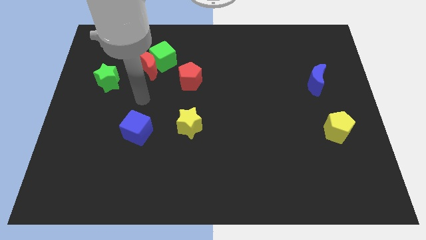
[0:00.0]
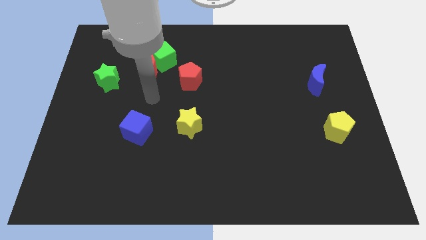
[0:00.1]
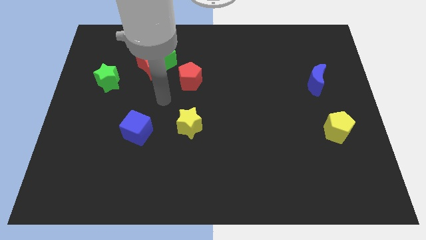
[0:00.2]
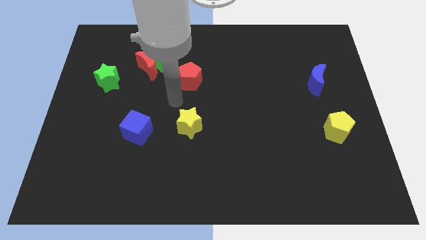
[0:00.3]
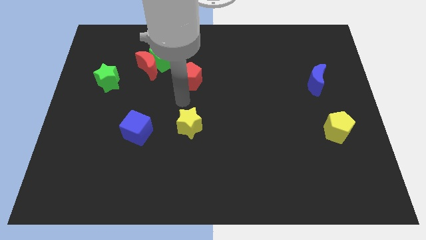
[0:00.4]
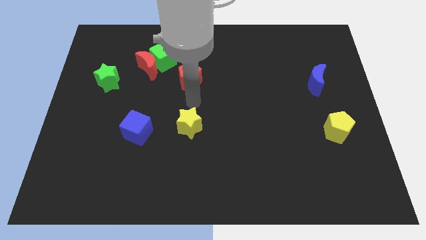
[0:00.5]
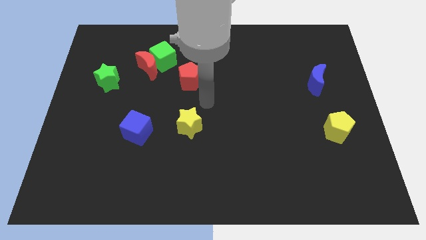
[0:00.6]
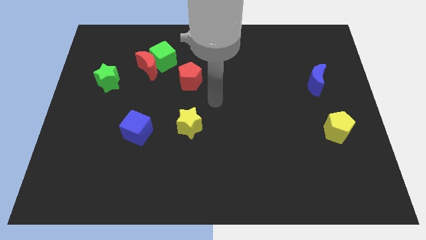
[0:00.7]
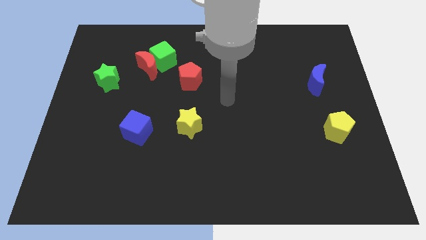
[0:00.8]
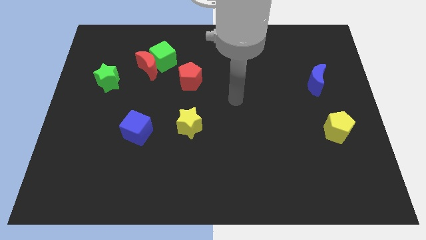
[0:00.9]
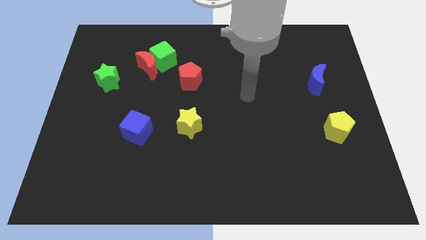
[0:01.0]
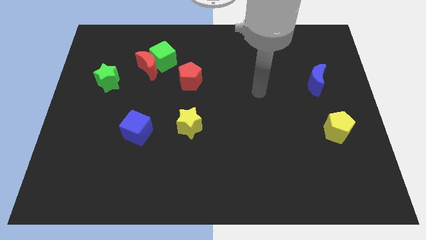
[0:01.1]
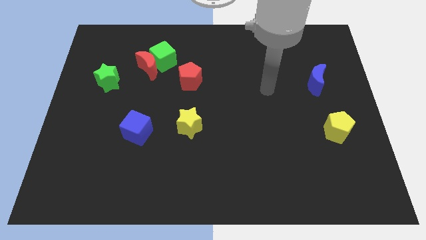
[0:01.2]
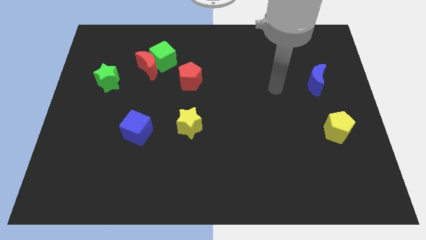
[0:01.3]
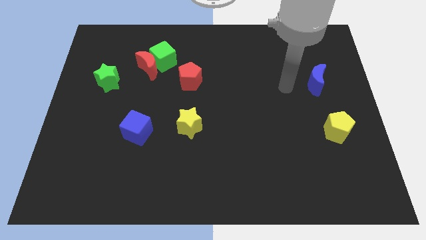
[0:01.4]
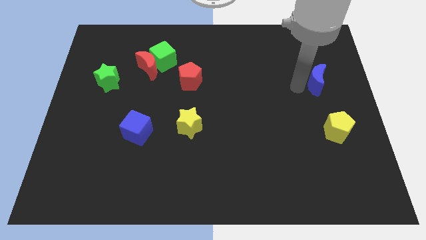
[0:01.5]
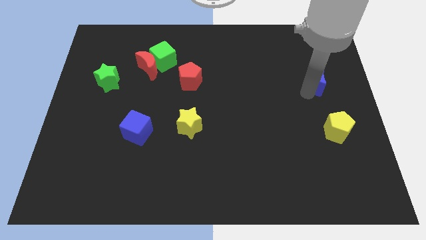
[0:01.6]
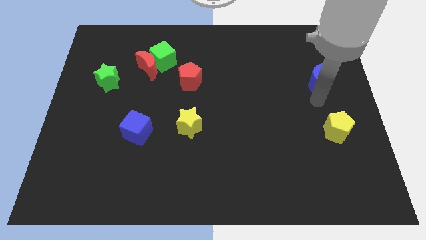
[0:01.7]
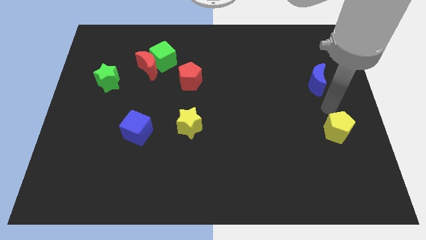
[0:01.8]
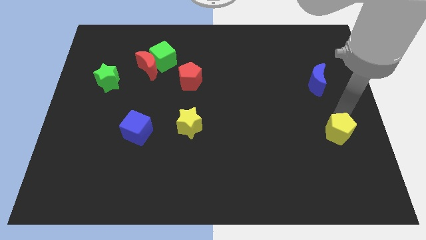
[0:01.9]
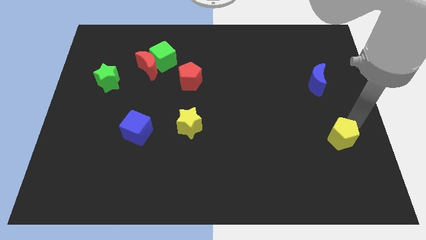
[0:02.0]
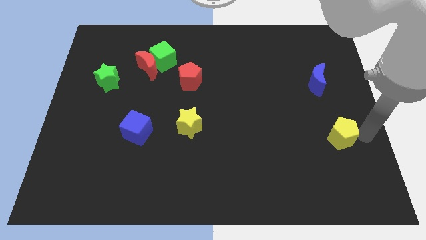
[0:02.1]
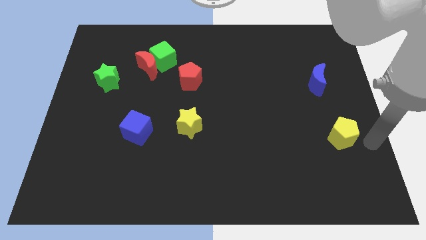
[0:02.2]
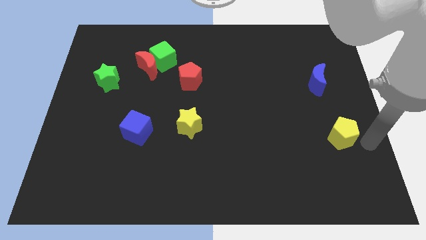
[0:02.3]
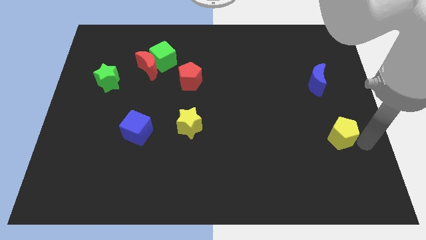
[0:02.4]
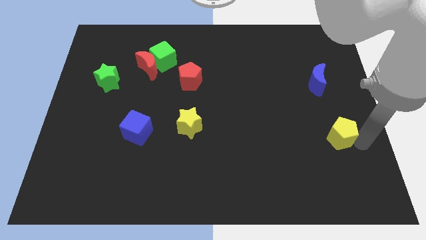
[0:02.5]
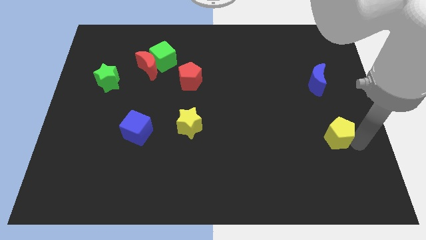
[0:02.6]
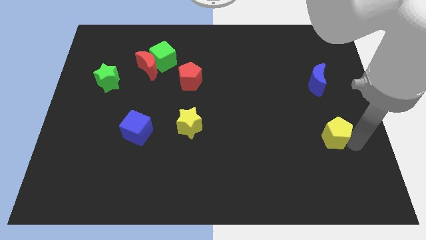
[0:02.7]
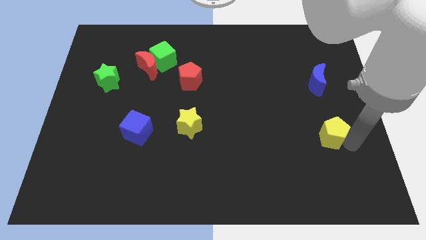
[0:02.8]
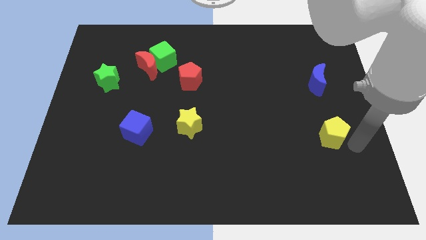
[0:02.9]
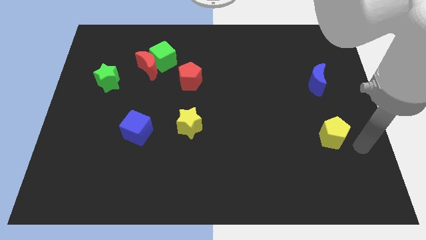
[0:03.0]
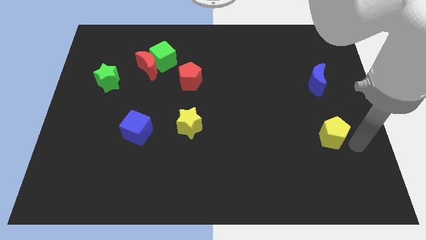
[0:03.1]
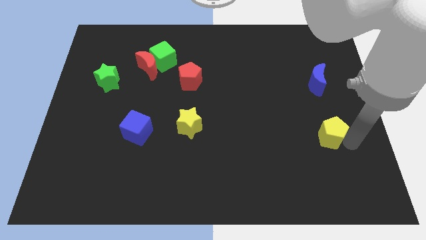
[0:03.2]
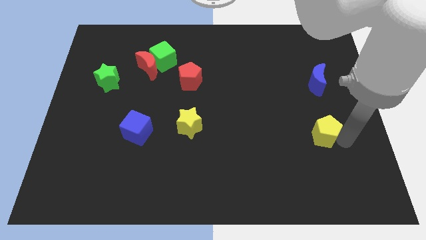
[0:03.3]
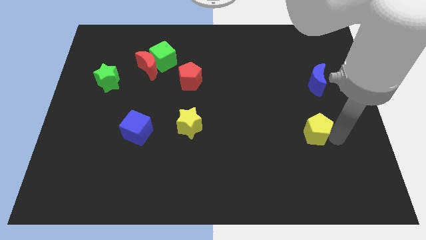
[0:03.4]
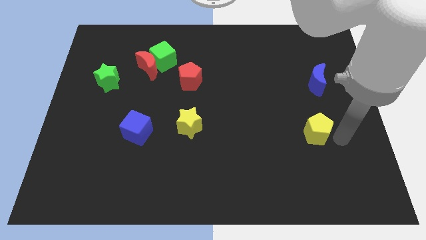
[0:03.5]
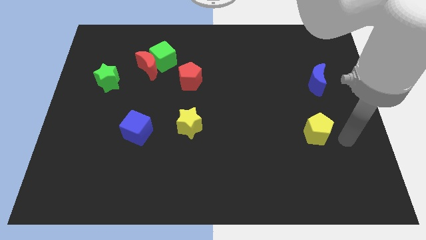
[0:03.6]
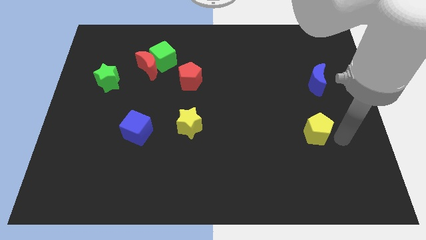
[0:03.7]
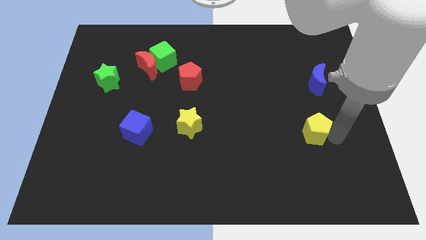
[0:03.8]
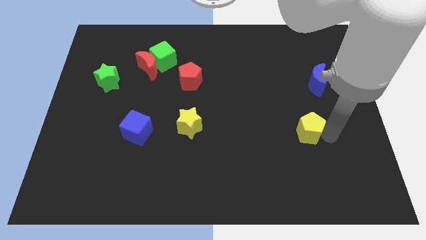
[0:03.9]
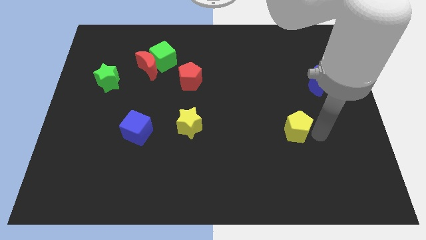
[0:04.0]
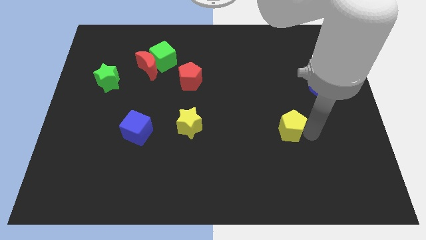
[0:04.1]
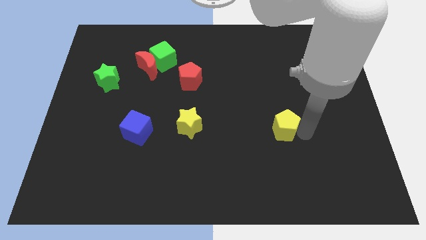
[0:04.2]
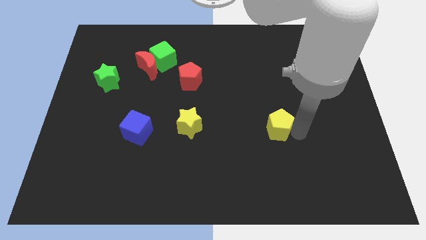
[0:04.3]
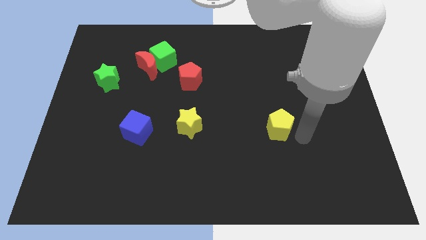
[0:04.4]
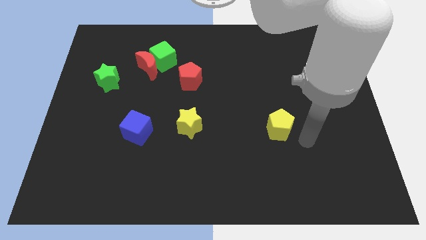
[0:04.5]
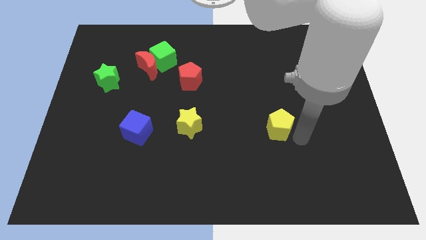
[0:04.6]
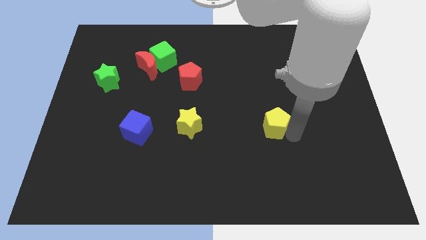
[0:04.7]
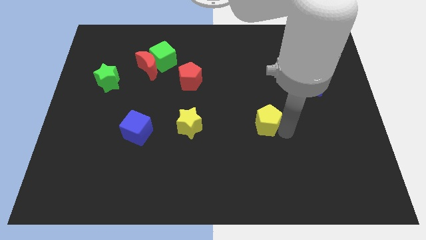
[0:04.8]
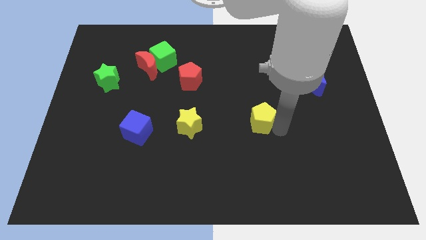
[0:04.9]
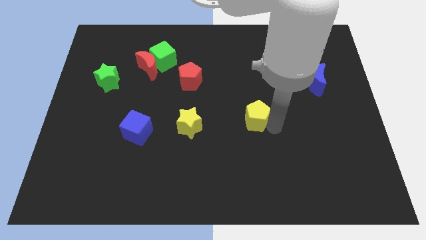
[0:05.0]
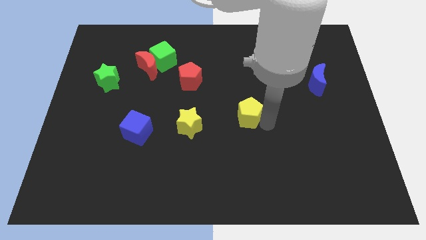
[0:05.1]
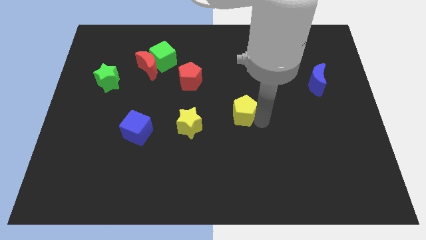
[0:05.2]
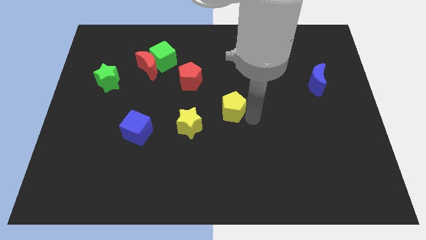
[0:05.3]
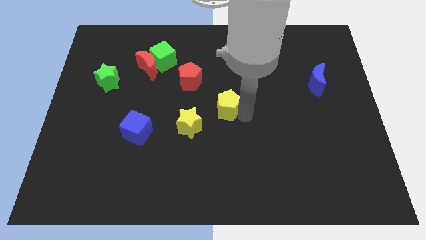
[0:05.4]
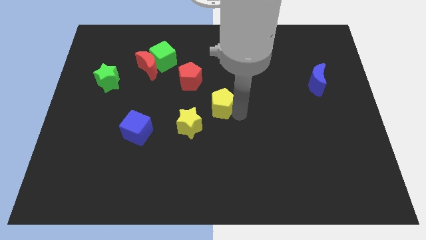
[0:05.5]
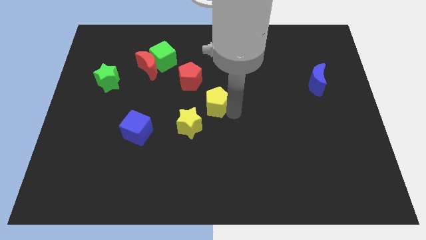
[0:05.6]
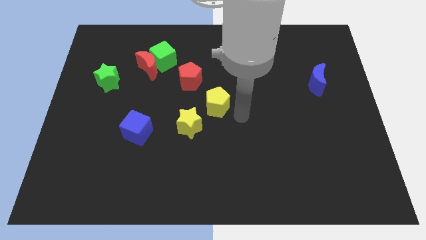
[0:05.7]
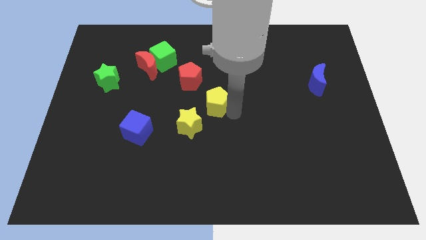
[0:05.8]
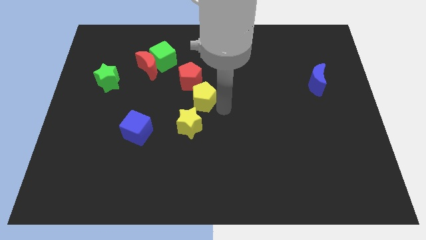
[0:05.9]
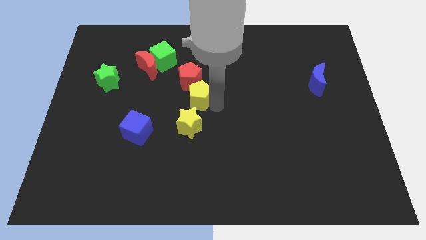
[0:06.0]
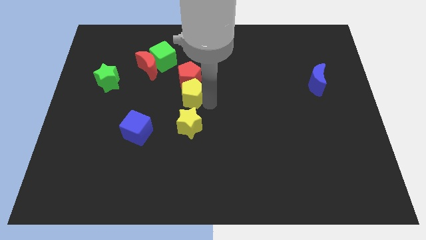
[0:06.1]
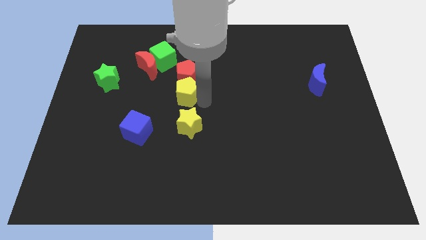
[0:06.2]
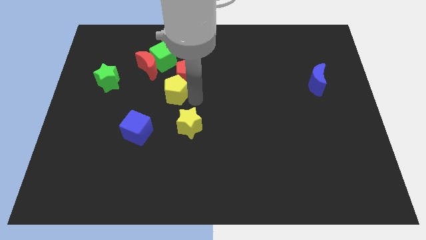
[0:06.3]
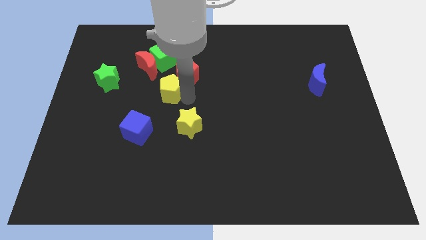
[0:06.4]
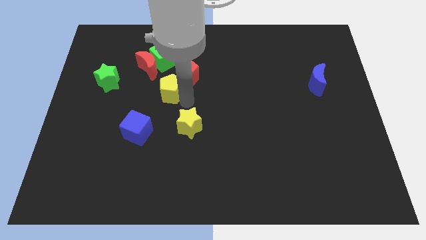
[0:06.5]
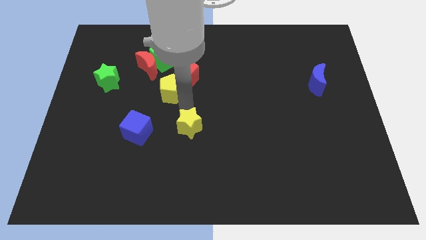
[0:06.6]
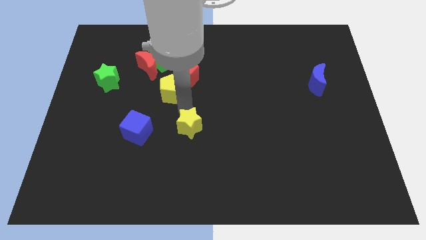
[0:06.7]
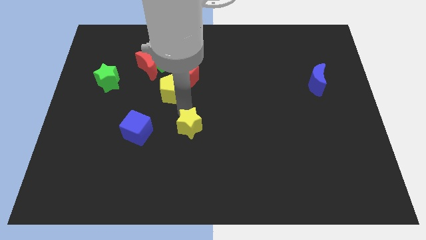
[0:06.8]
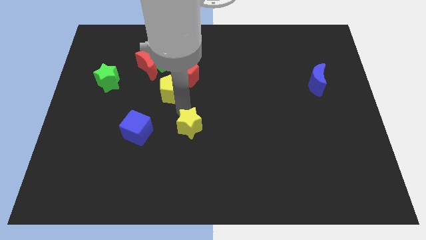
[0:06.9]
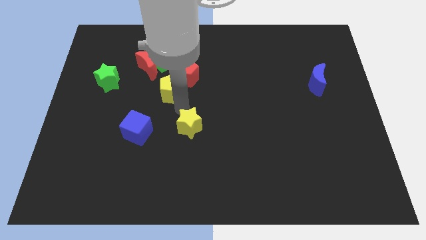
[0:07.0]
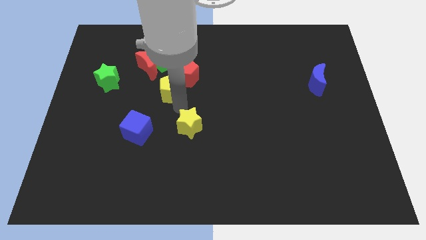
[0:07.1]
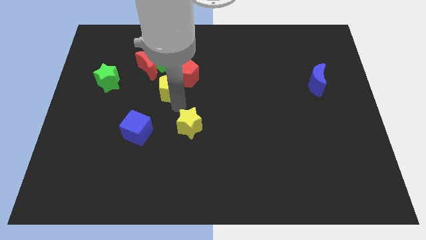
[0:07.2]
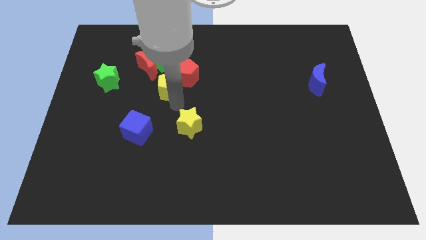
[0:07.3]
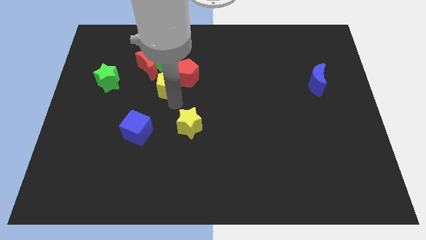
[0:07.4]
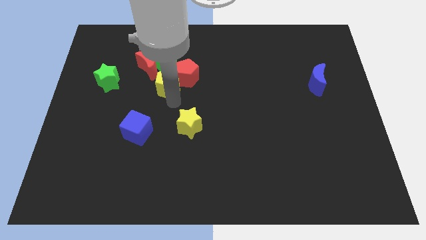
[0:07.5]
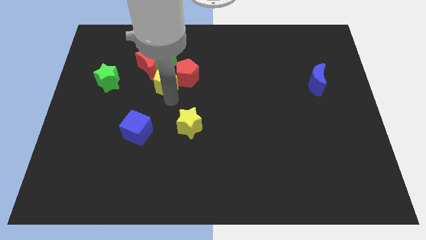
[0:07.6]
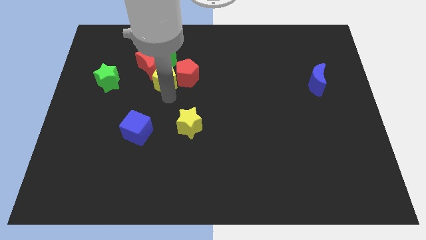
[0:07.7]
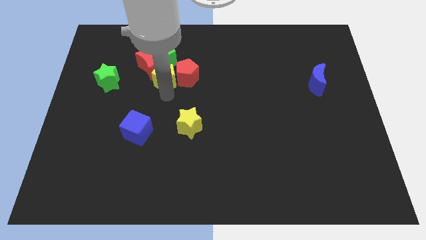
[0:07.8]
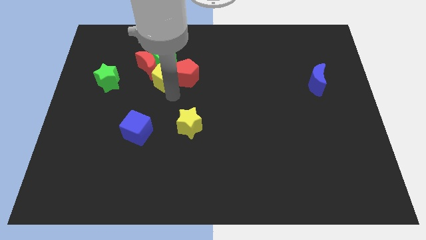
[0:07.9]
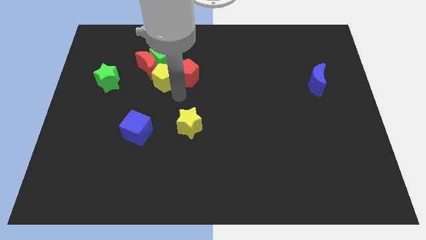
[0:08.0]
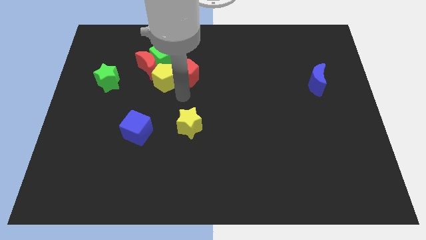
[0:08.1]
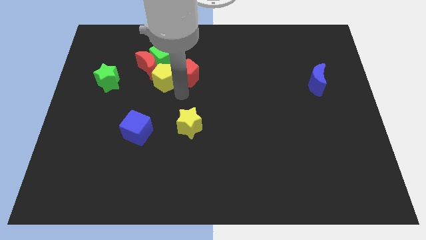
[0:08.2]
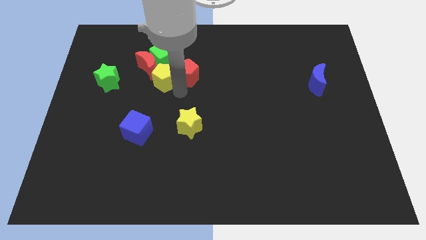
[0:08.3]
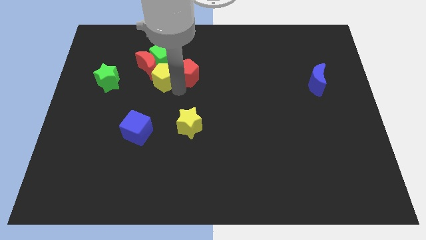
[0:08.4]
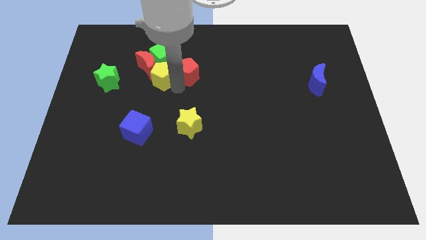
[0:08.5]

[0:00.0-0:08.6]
move the yellow pentagon to the red moon
